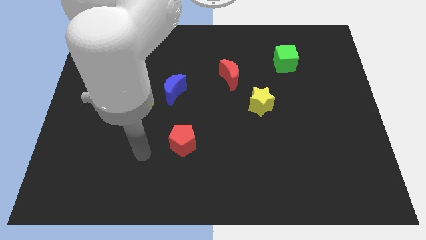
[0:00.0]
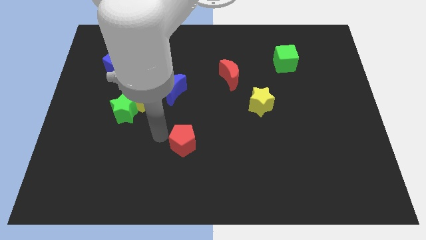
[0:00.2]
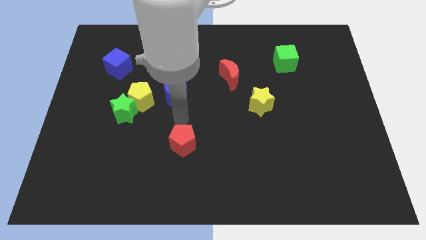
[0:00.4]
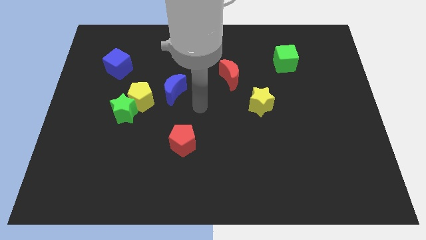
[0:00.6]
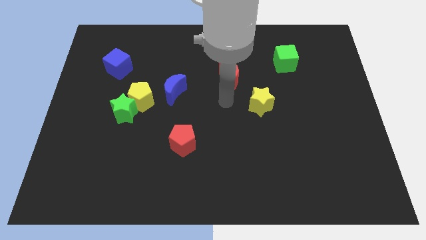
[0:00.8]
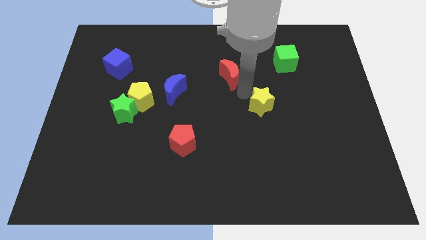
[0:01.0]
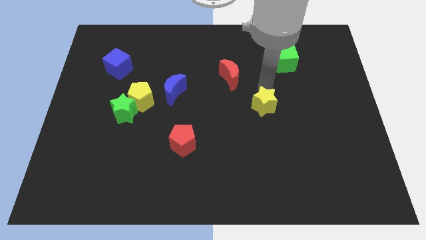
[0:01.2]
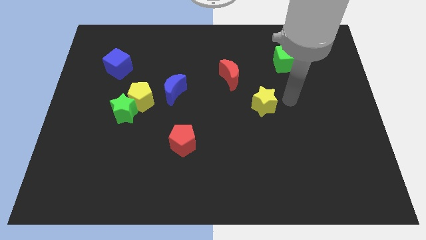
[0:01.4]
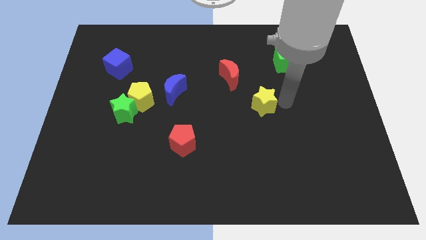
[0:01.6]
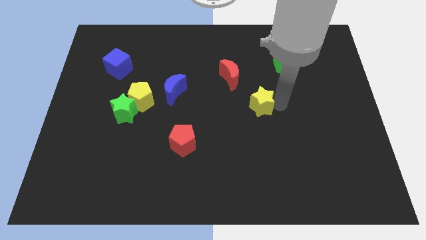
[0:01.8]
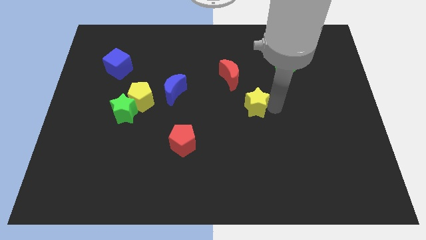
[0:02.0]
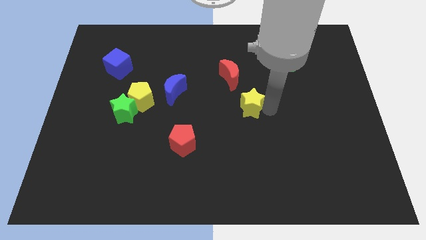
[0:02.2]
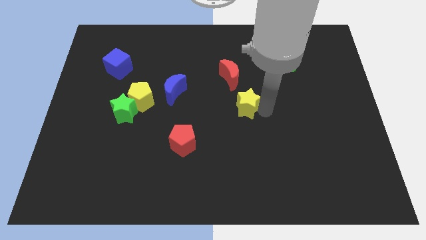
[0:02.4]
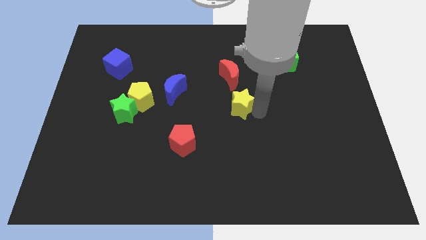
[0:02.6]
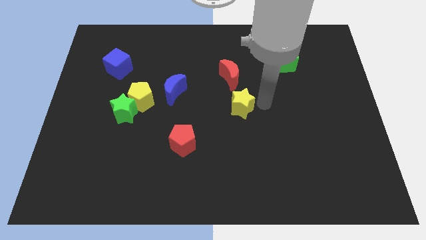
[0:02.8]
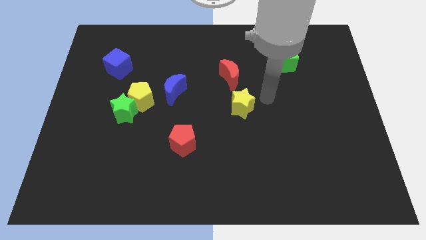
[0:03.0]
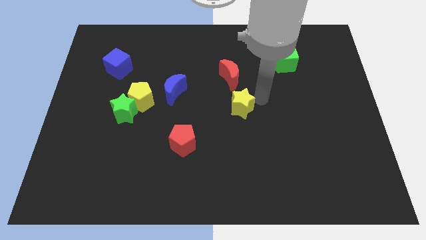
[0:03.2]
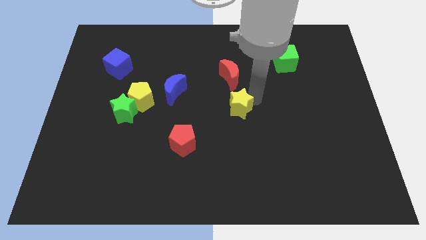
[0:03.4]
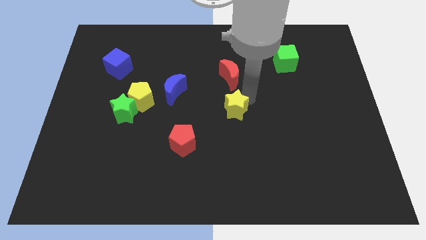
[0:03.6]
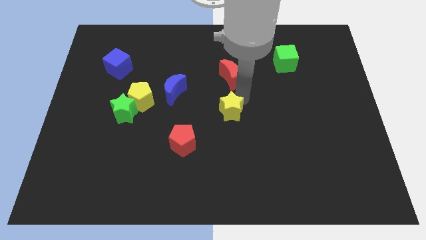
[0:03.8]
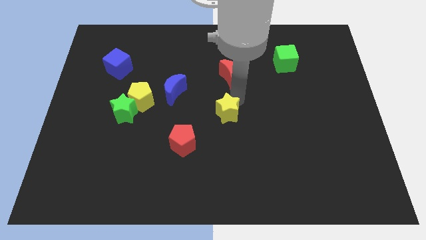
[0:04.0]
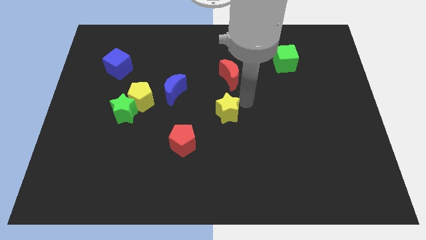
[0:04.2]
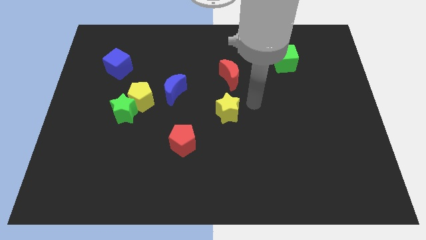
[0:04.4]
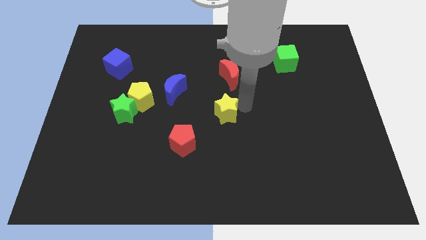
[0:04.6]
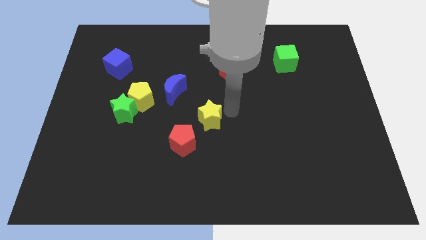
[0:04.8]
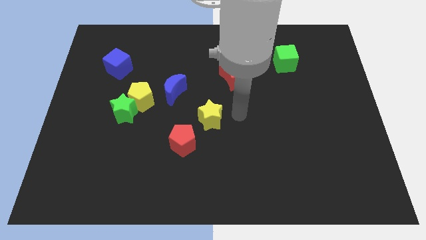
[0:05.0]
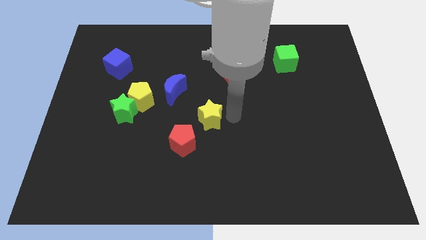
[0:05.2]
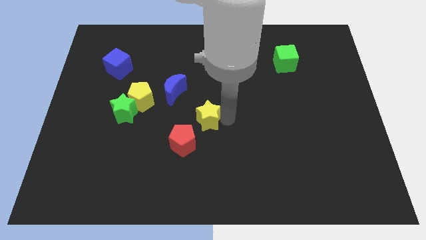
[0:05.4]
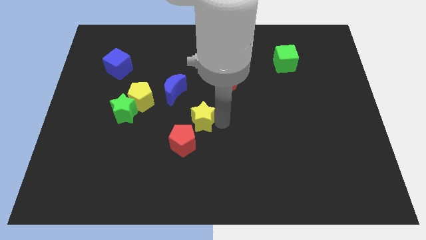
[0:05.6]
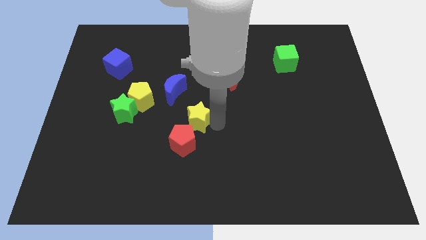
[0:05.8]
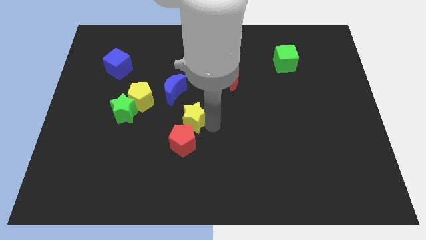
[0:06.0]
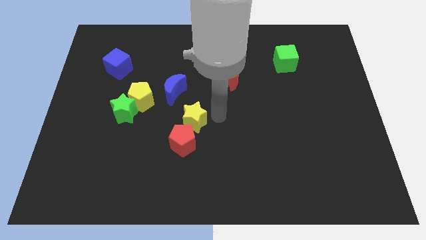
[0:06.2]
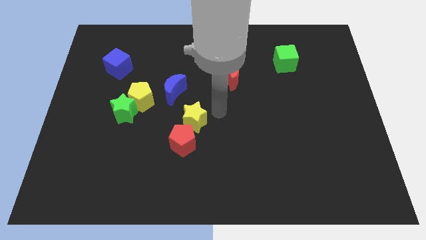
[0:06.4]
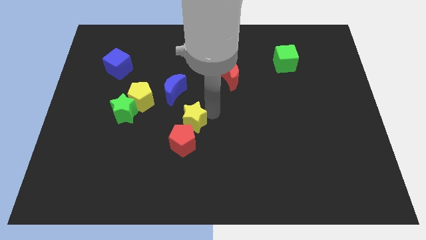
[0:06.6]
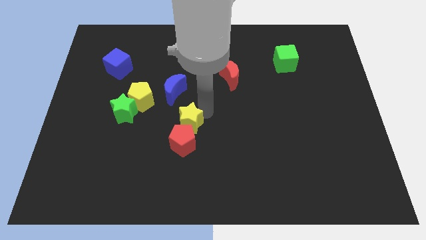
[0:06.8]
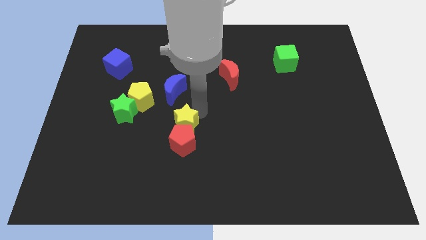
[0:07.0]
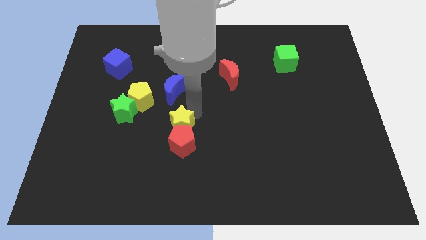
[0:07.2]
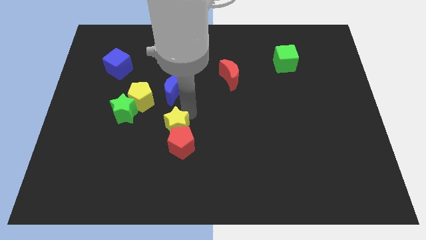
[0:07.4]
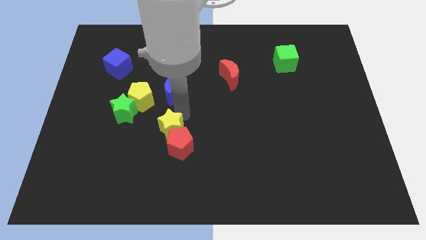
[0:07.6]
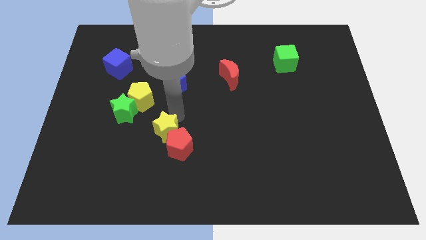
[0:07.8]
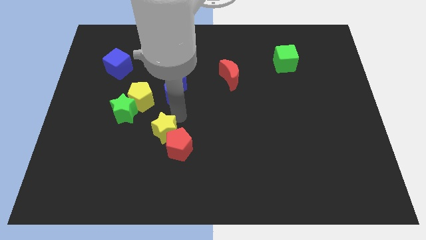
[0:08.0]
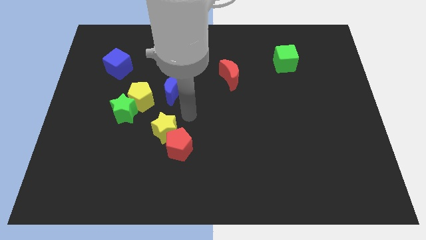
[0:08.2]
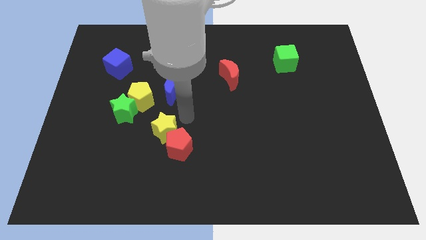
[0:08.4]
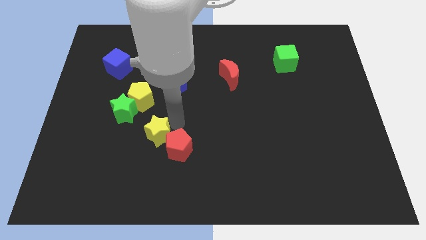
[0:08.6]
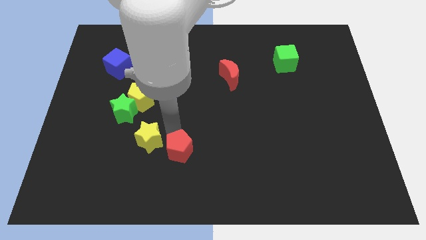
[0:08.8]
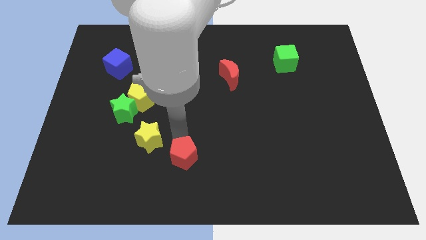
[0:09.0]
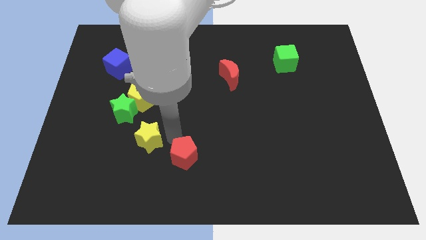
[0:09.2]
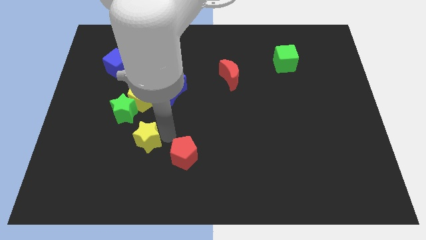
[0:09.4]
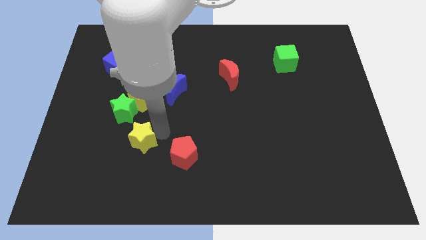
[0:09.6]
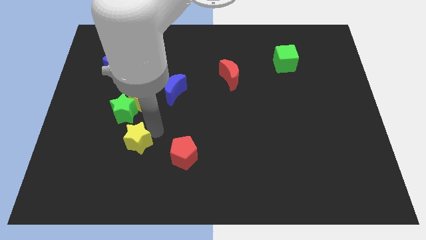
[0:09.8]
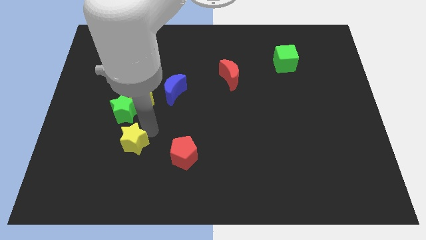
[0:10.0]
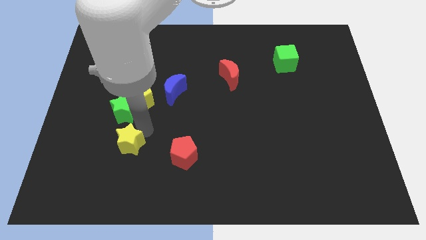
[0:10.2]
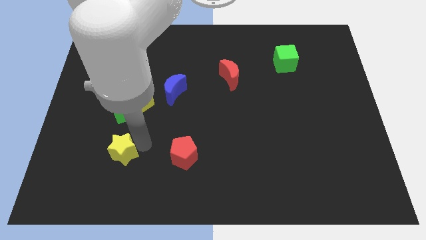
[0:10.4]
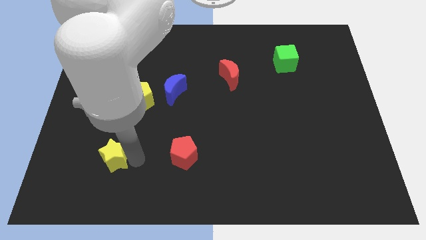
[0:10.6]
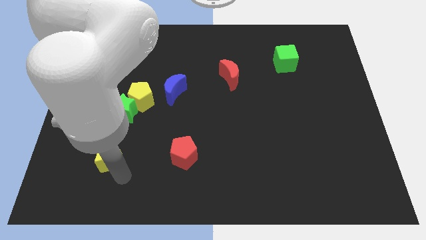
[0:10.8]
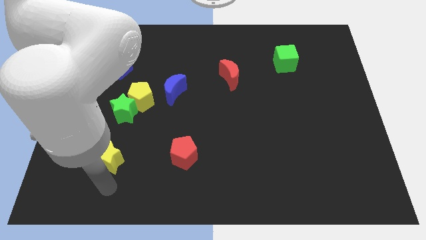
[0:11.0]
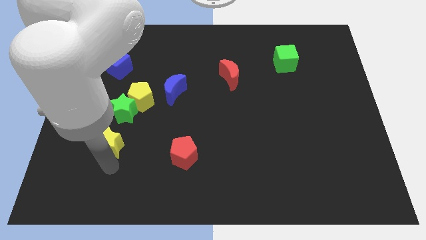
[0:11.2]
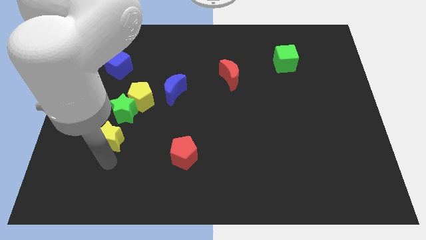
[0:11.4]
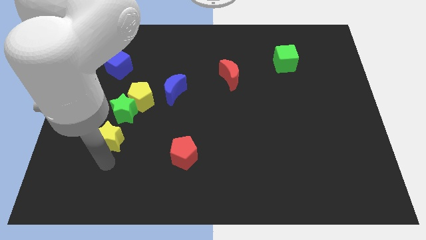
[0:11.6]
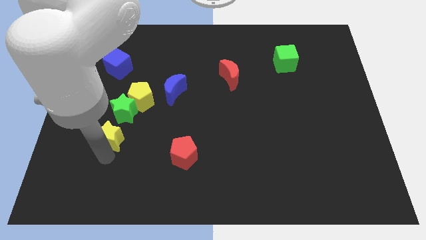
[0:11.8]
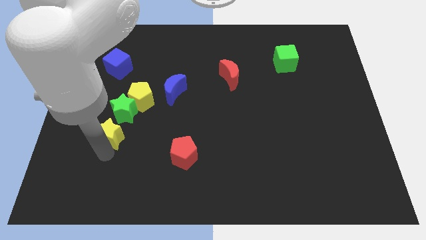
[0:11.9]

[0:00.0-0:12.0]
push the yellow star to the bottom left side of the yellow pentagon

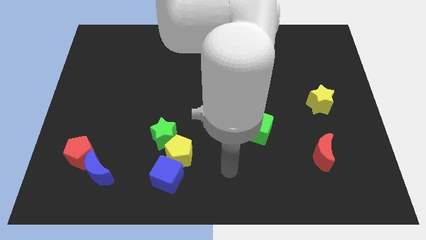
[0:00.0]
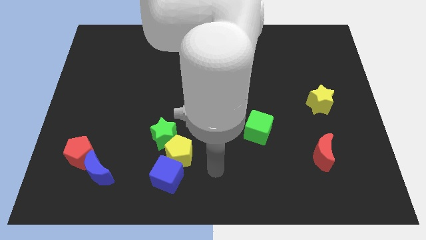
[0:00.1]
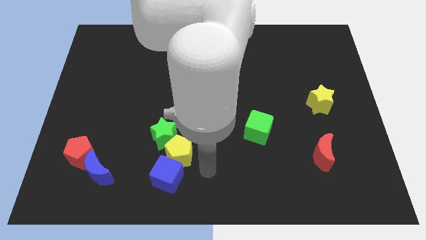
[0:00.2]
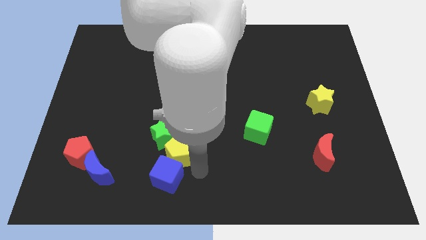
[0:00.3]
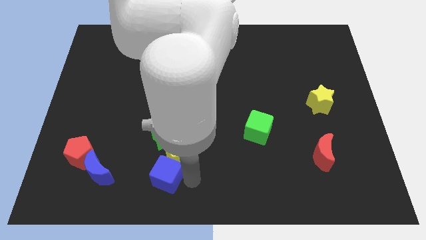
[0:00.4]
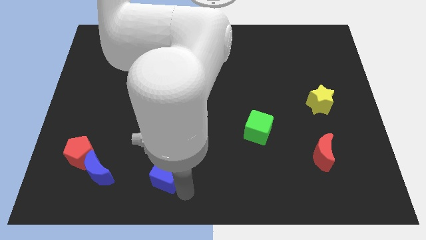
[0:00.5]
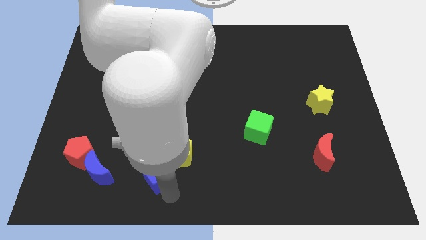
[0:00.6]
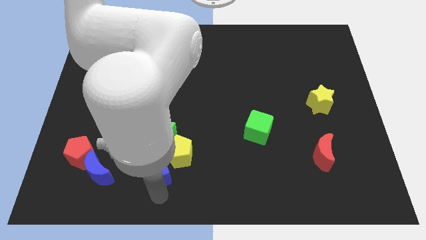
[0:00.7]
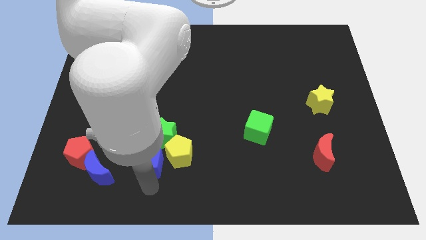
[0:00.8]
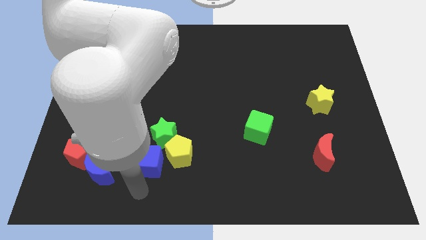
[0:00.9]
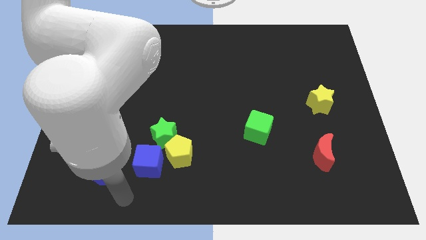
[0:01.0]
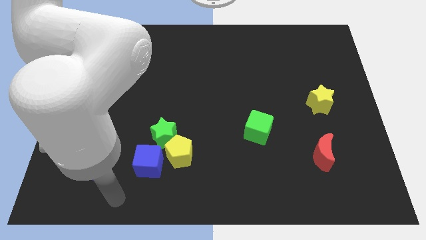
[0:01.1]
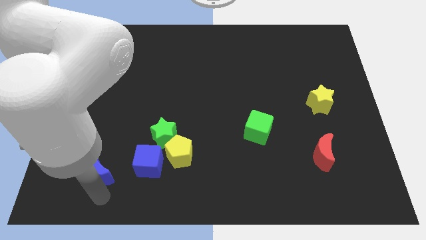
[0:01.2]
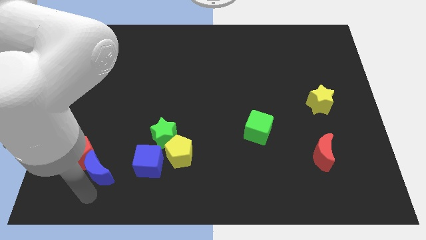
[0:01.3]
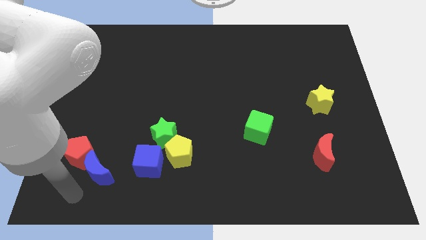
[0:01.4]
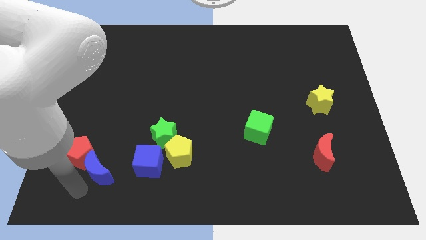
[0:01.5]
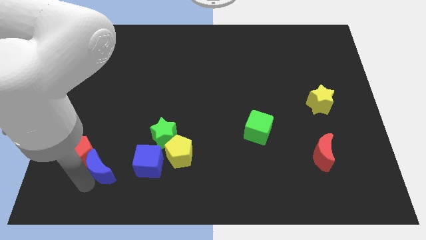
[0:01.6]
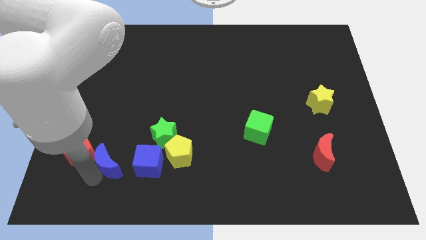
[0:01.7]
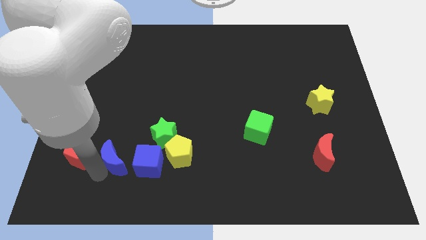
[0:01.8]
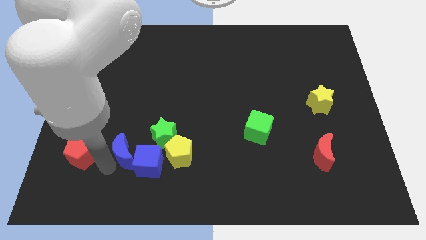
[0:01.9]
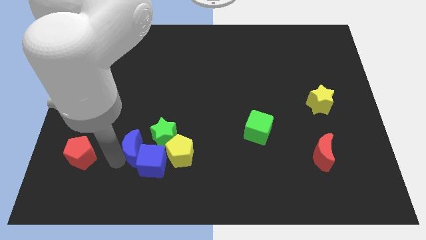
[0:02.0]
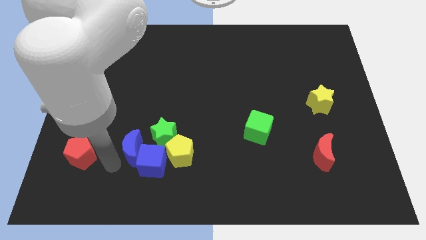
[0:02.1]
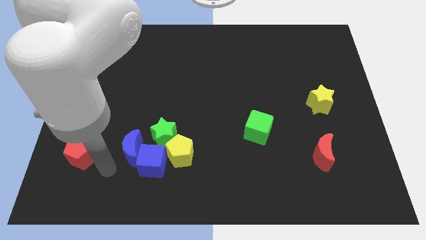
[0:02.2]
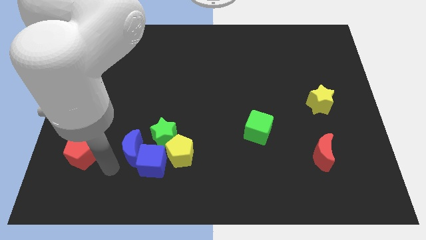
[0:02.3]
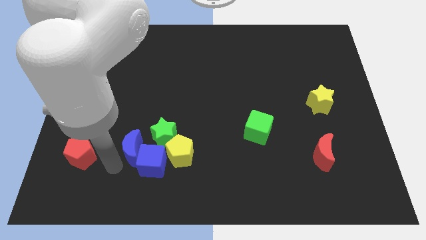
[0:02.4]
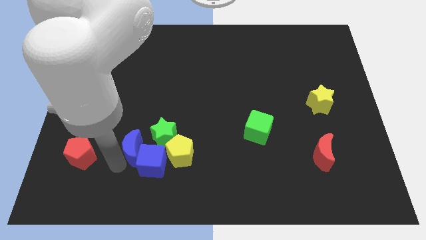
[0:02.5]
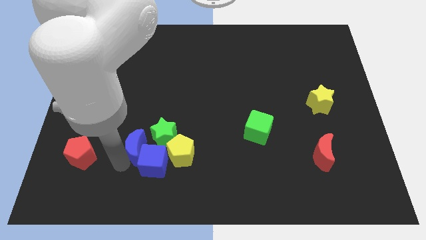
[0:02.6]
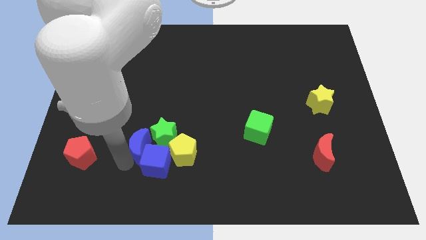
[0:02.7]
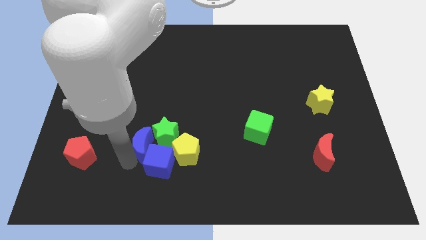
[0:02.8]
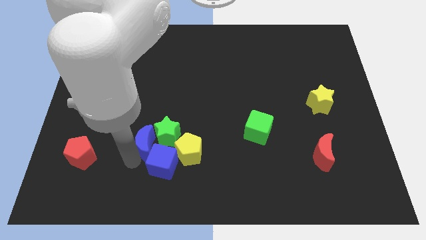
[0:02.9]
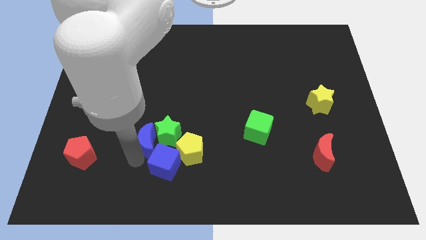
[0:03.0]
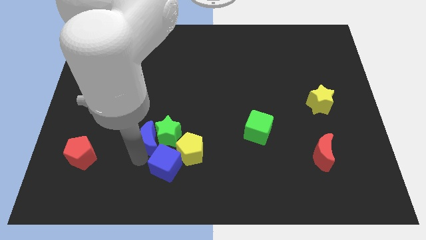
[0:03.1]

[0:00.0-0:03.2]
slide the blue moon to the top left side of the yellow pentagon
